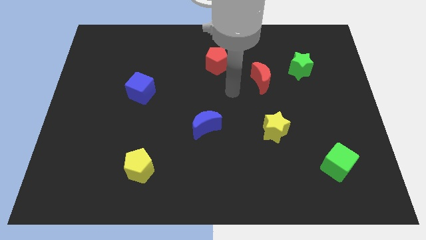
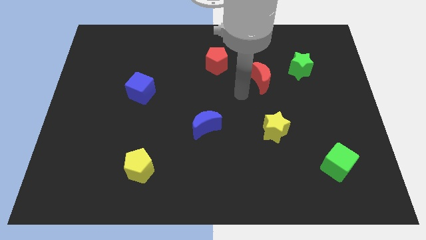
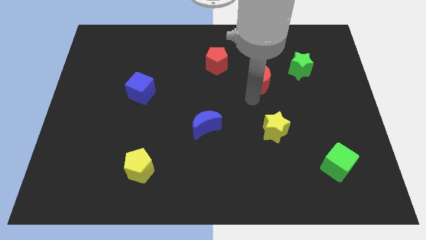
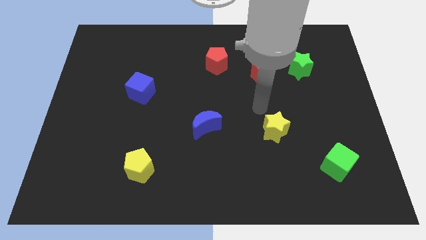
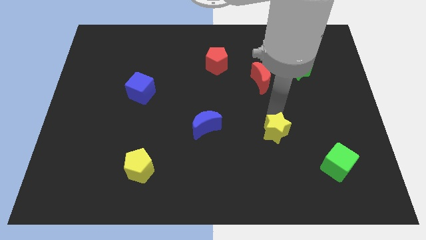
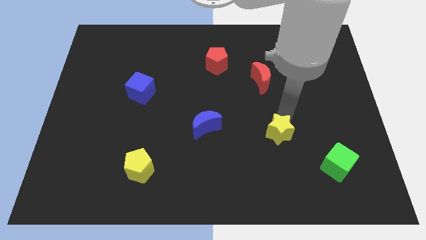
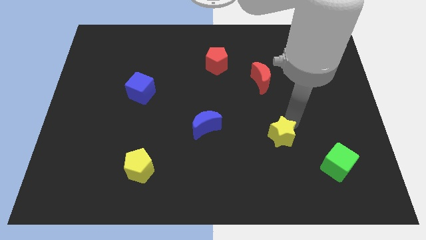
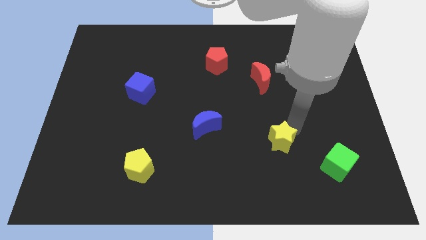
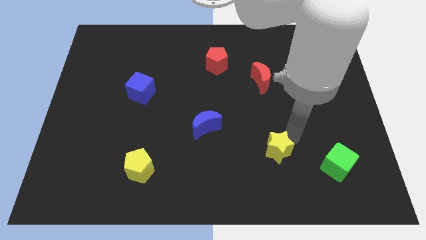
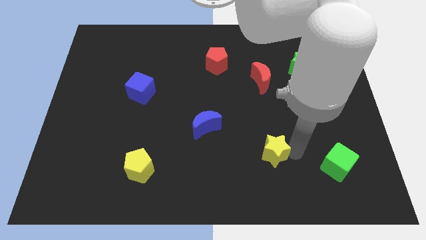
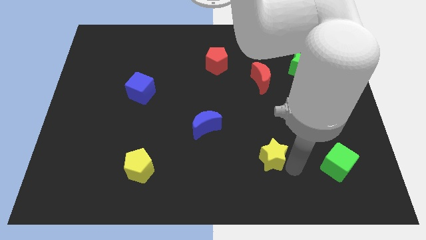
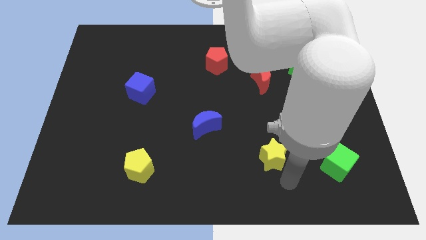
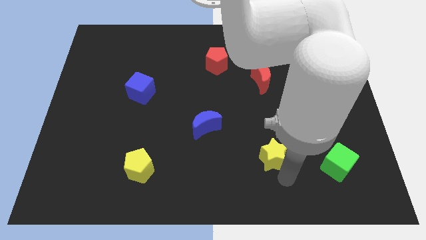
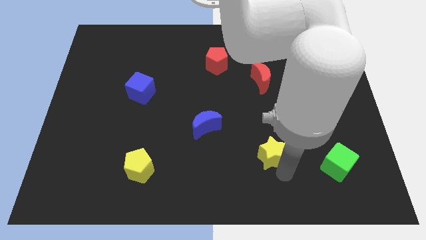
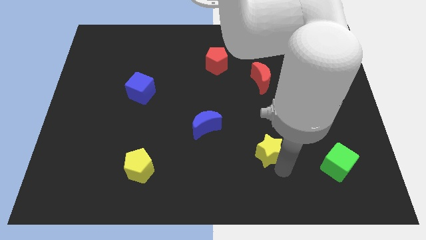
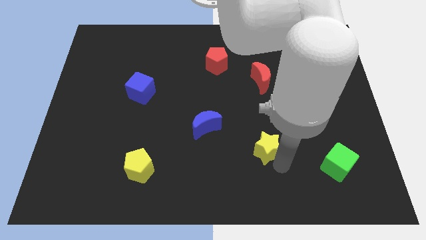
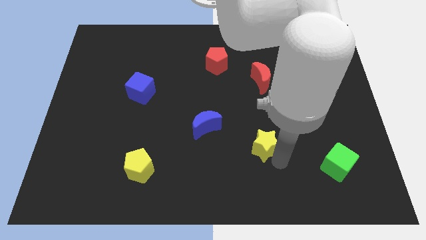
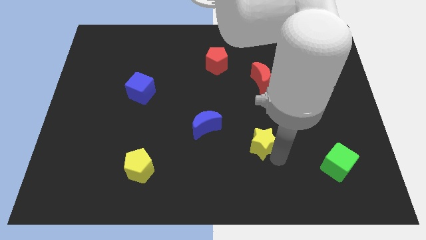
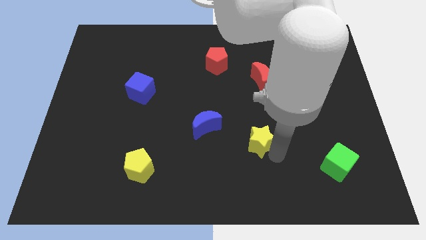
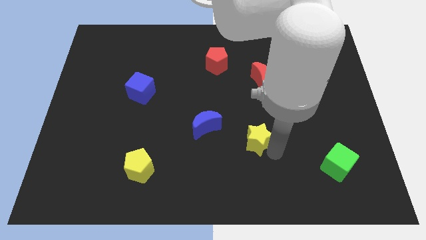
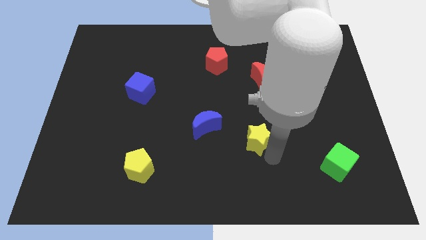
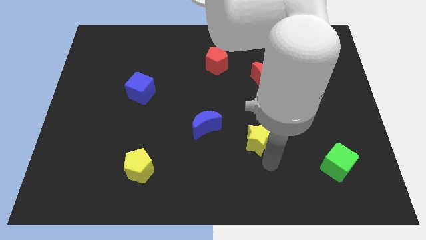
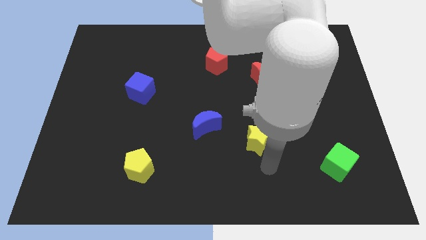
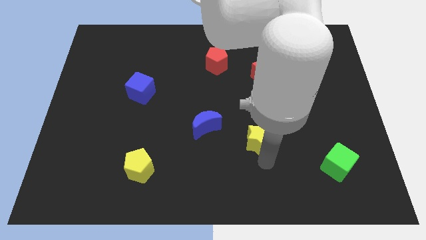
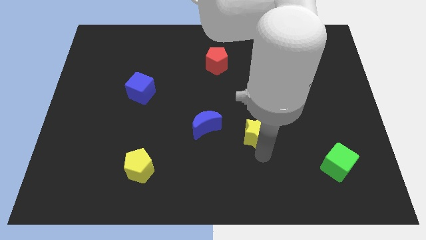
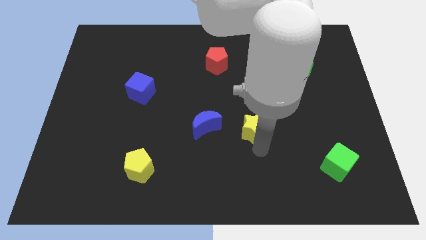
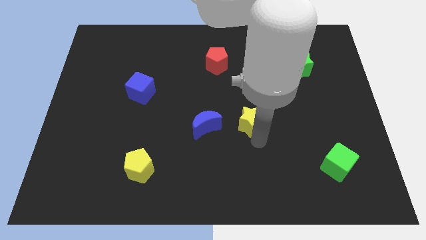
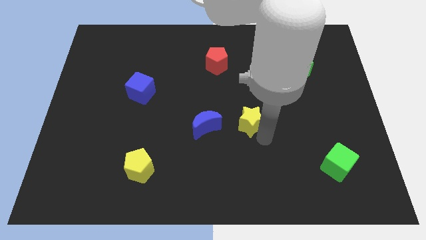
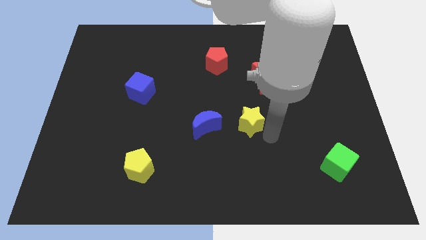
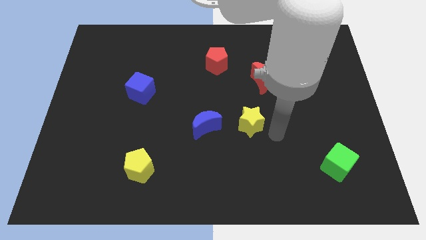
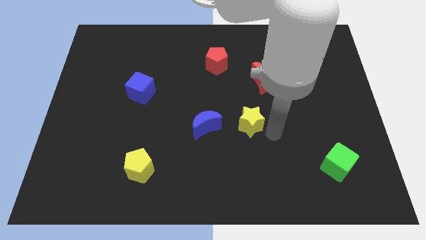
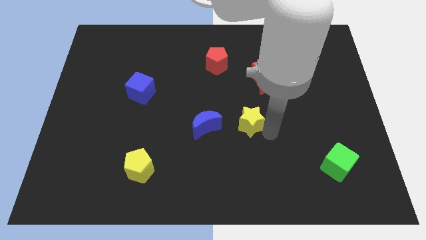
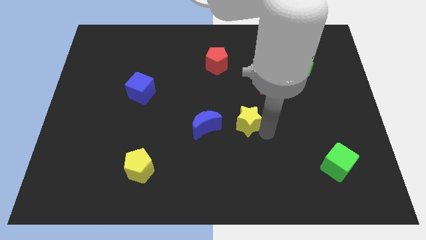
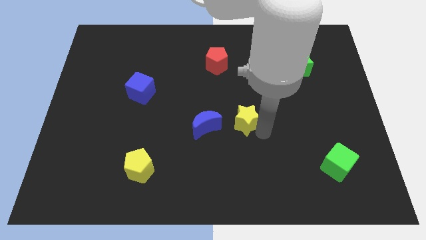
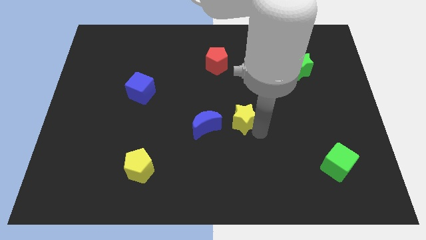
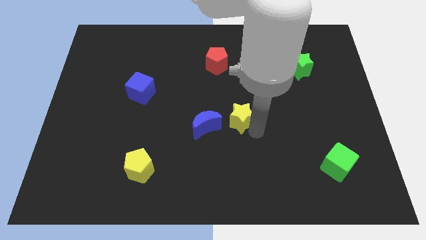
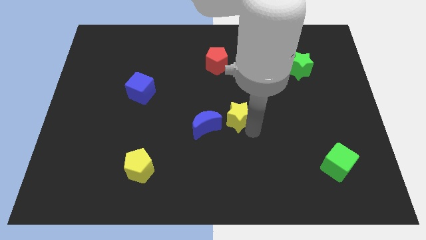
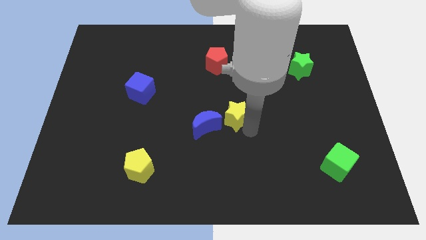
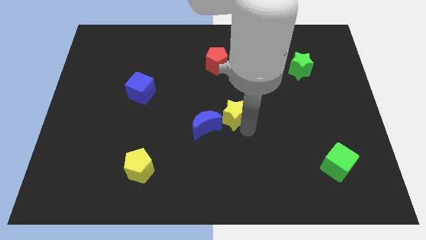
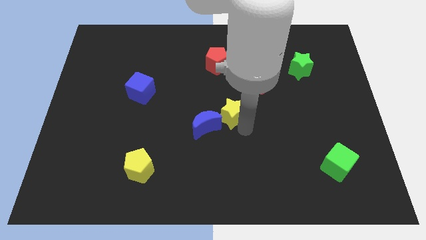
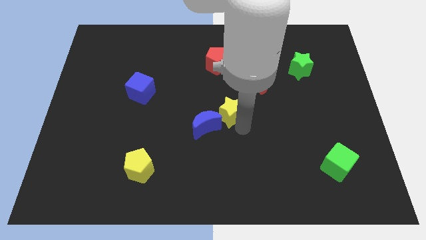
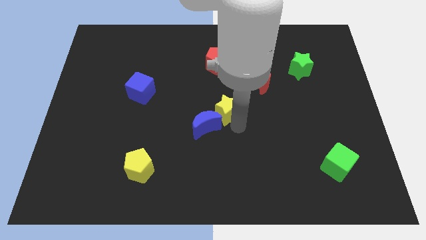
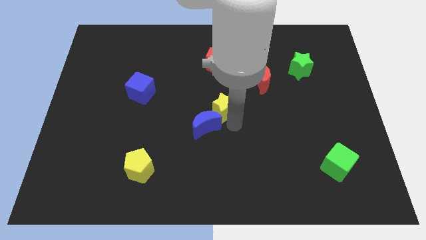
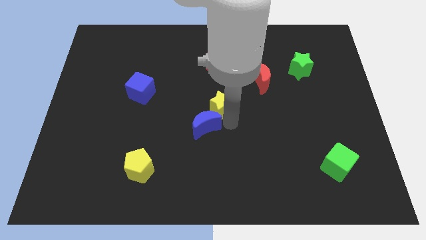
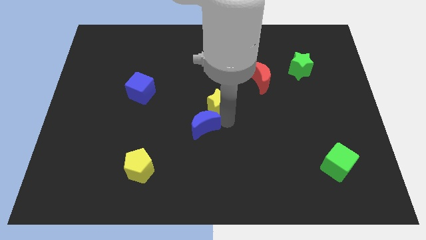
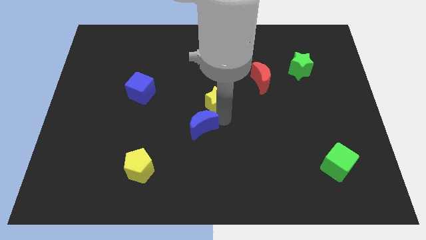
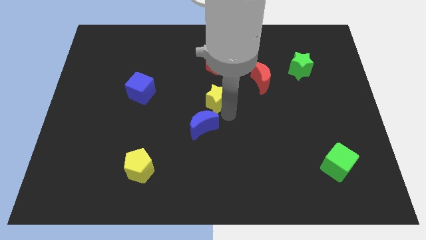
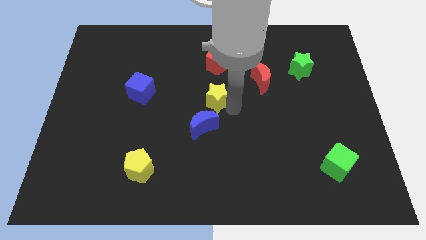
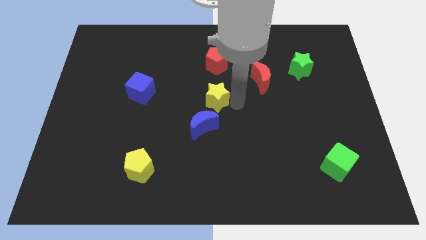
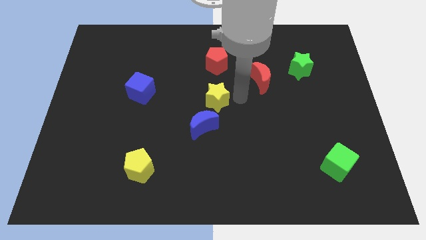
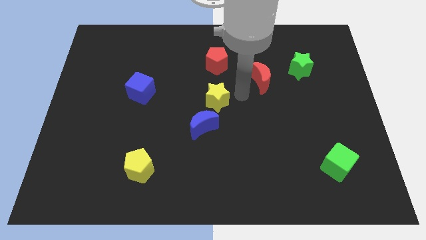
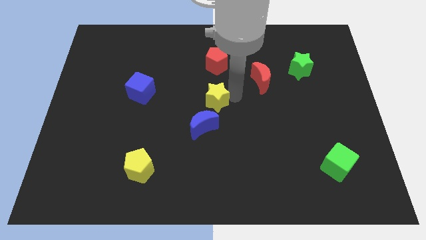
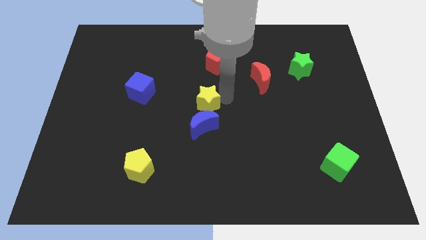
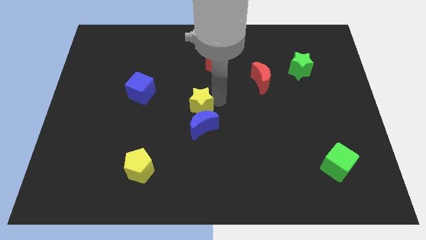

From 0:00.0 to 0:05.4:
push the yellow star diagonally up and to the left of the blue moon

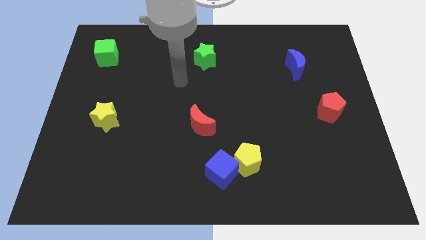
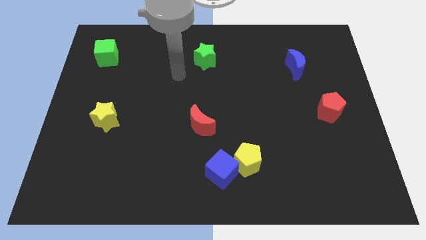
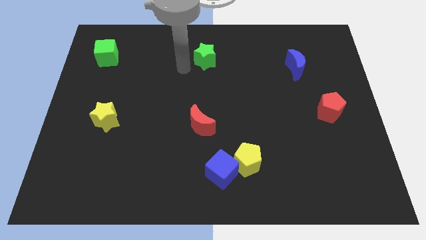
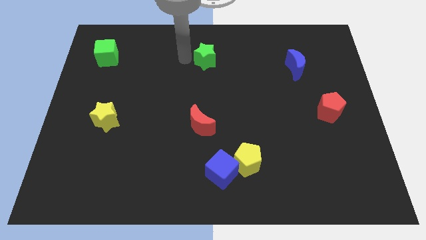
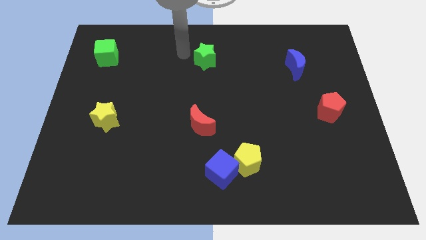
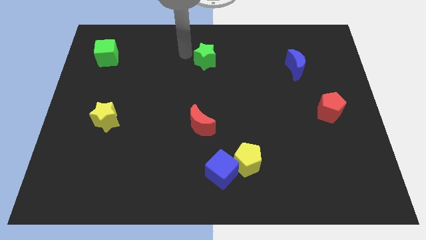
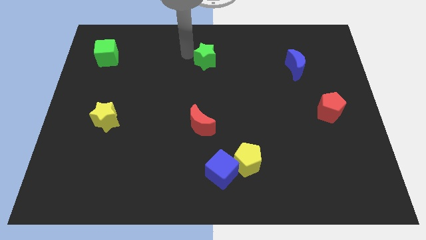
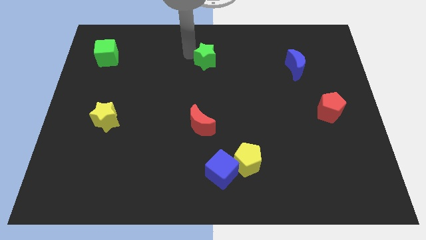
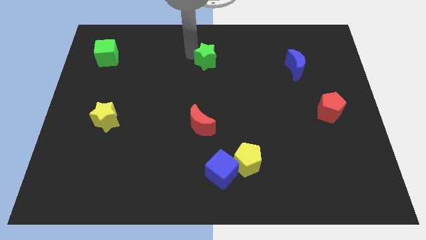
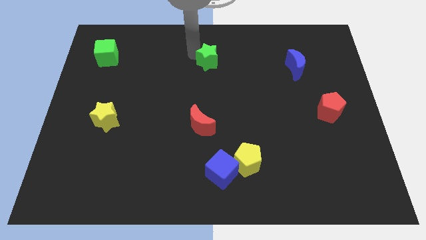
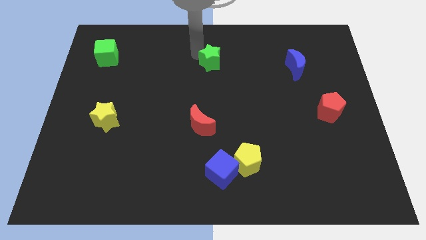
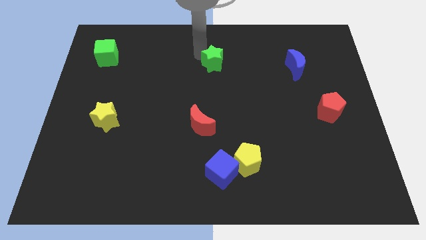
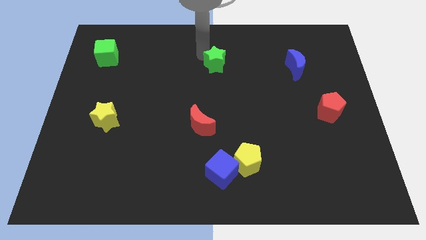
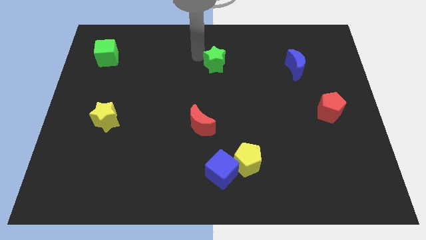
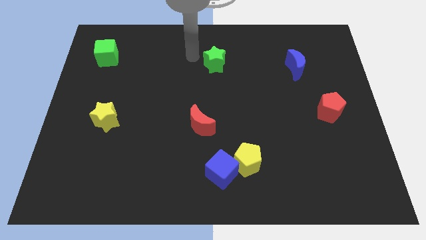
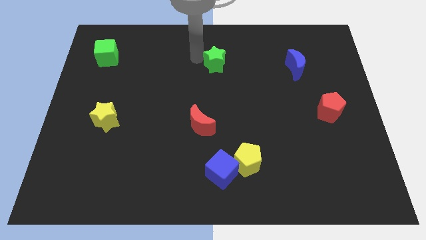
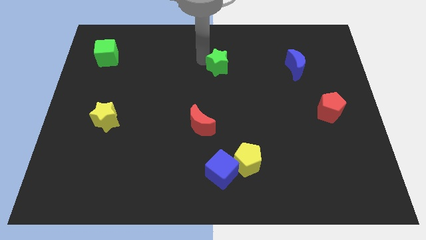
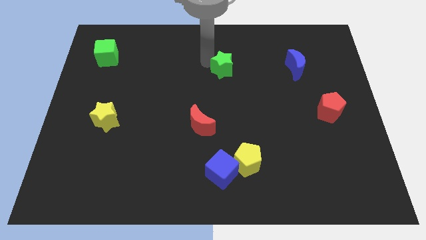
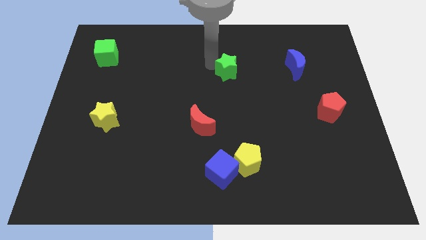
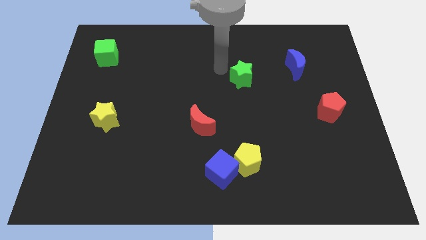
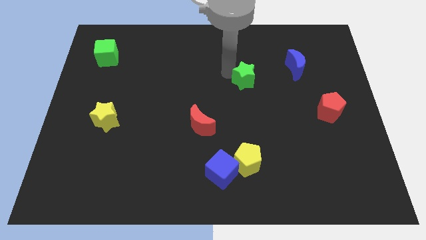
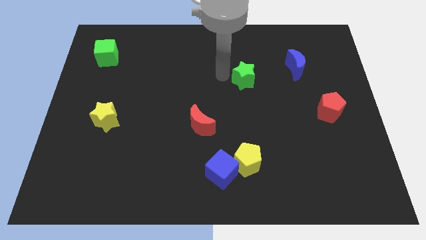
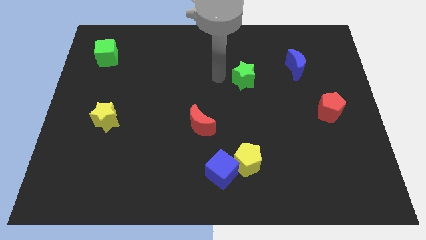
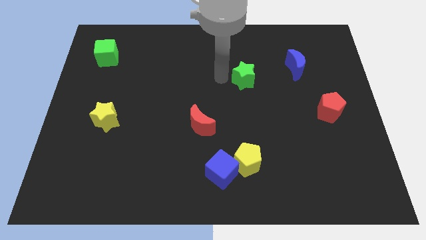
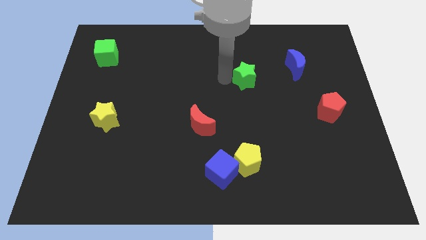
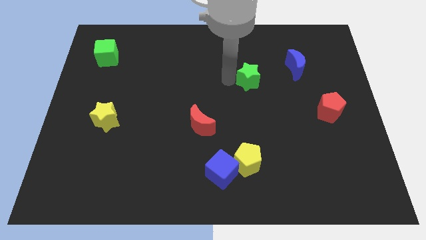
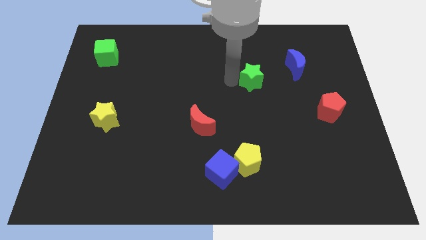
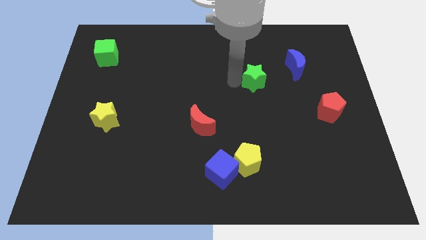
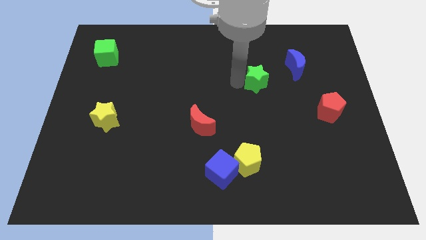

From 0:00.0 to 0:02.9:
put the green star to the bottom left of the blue moon
